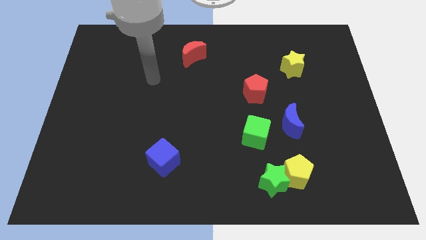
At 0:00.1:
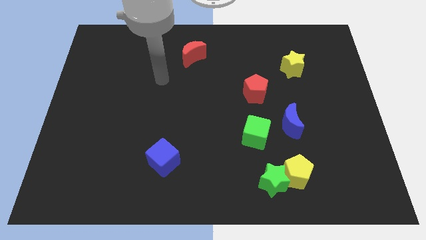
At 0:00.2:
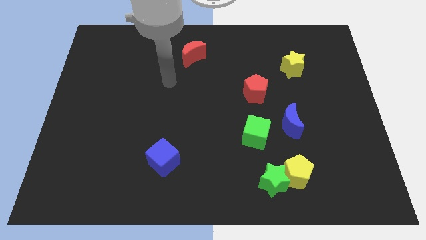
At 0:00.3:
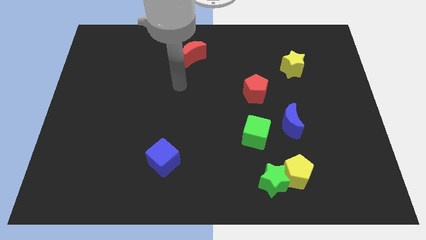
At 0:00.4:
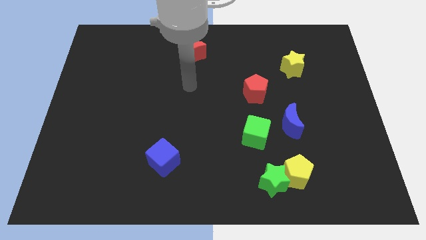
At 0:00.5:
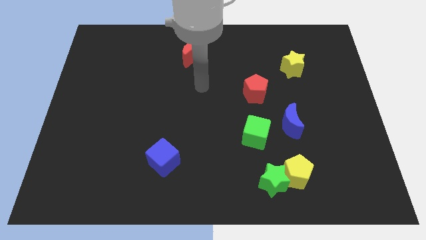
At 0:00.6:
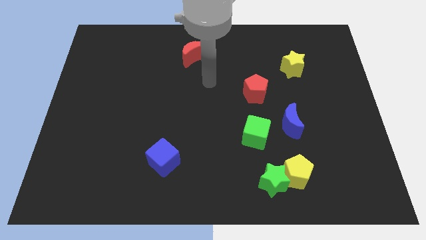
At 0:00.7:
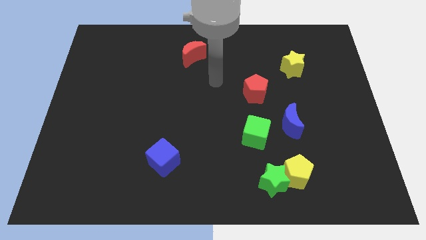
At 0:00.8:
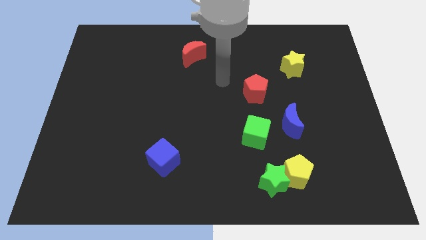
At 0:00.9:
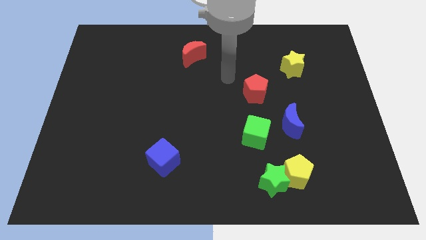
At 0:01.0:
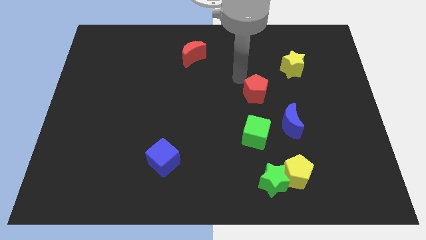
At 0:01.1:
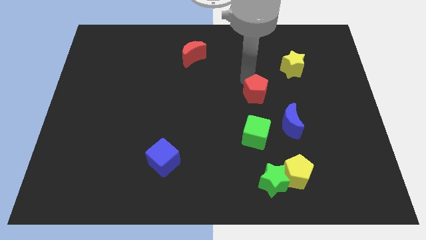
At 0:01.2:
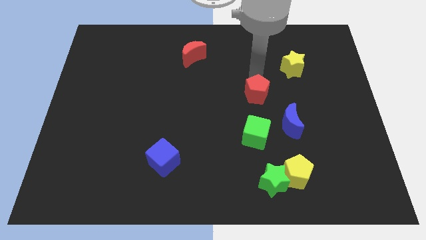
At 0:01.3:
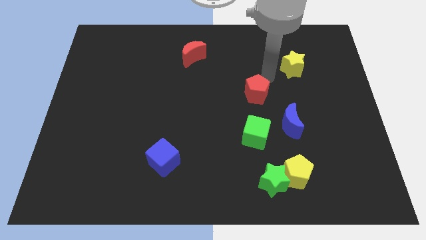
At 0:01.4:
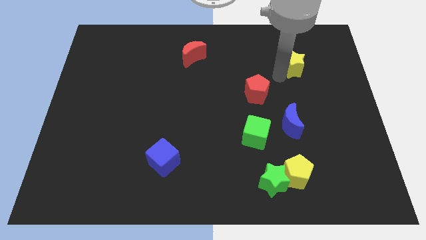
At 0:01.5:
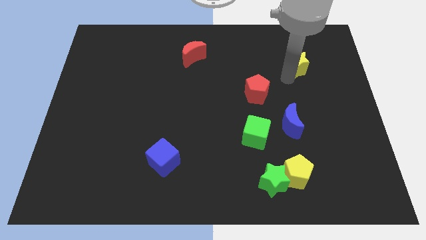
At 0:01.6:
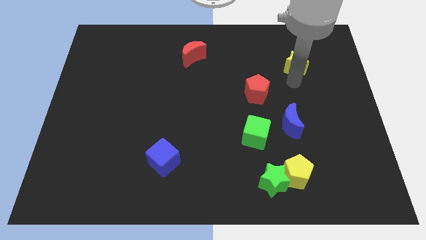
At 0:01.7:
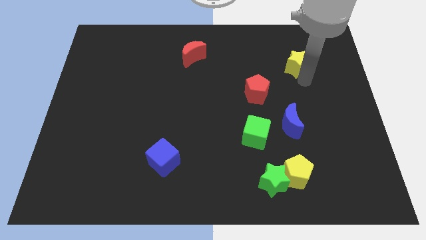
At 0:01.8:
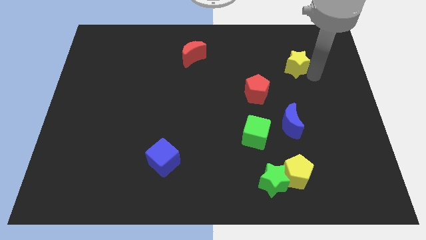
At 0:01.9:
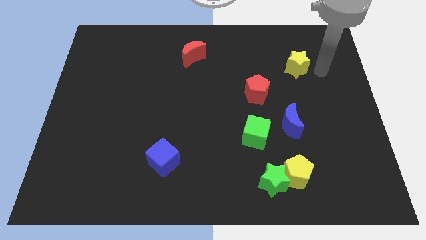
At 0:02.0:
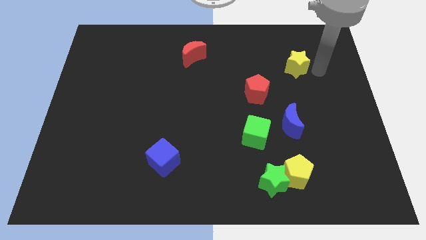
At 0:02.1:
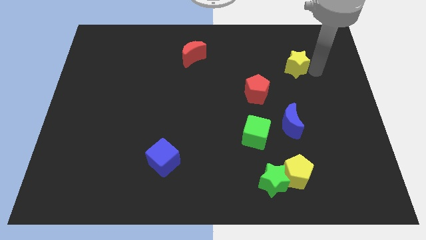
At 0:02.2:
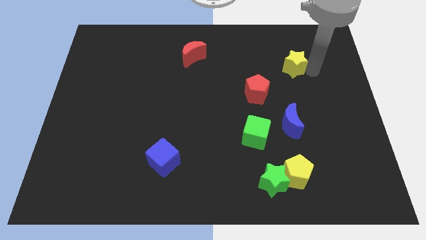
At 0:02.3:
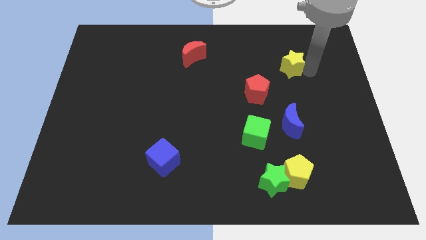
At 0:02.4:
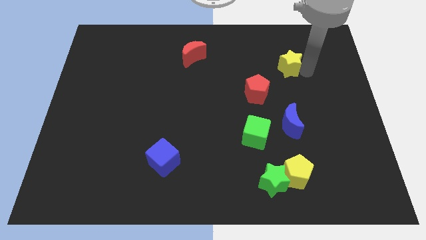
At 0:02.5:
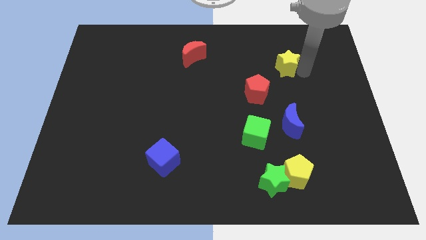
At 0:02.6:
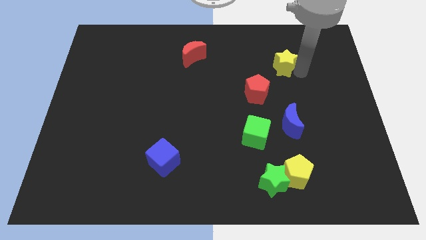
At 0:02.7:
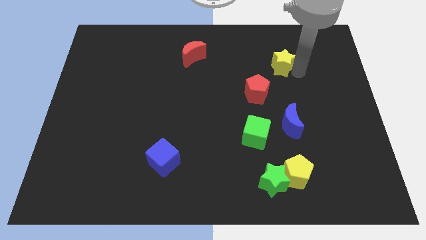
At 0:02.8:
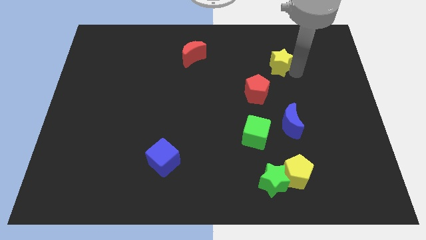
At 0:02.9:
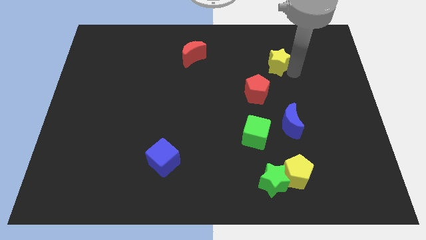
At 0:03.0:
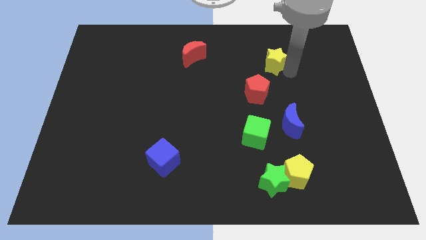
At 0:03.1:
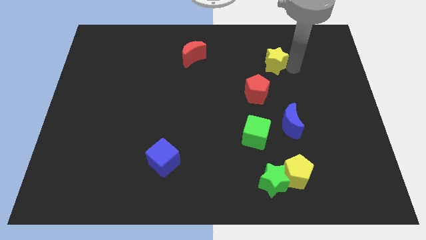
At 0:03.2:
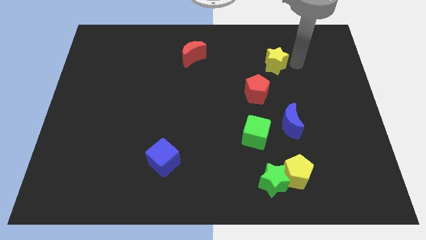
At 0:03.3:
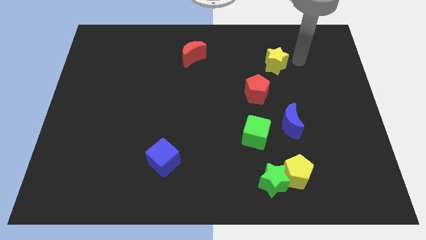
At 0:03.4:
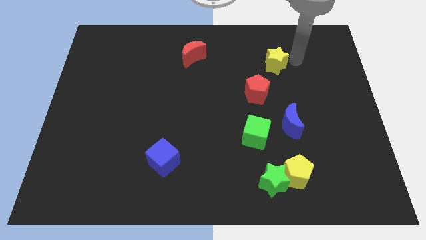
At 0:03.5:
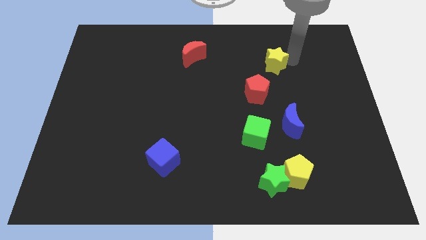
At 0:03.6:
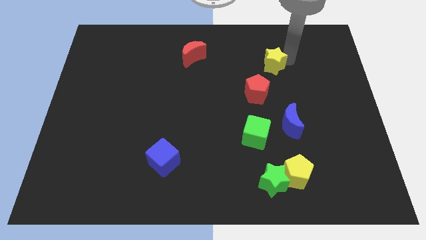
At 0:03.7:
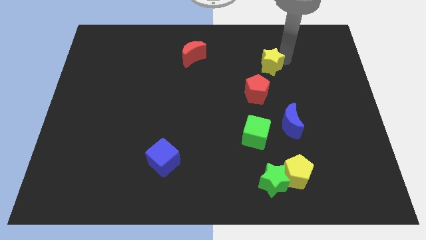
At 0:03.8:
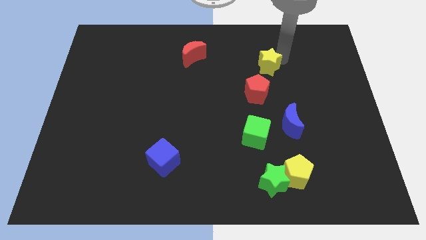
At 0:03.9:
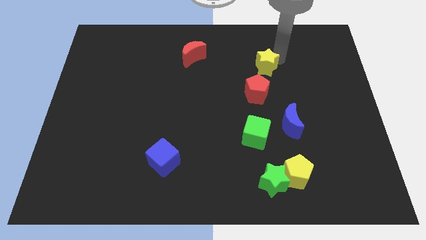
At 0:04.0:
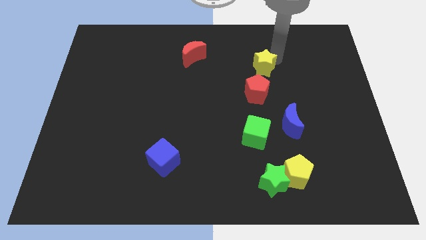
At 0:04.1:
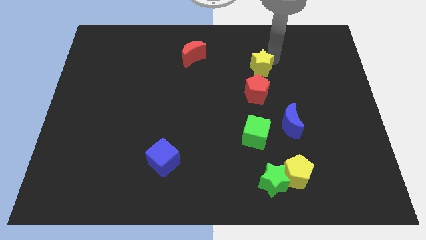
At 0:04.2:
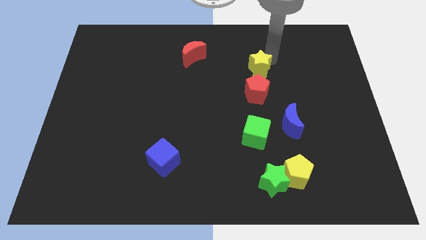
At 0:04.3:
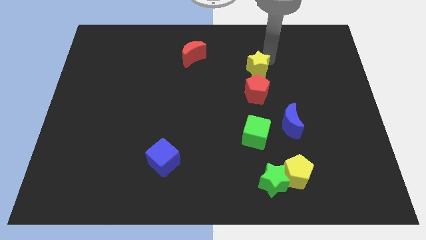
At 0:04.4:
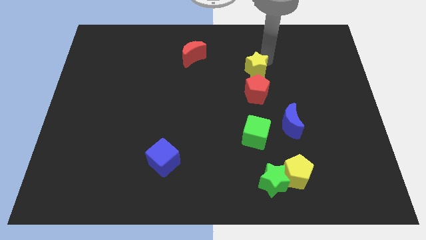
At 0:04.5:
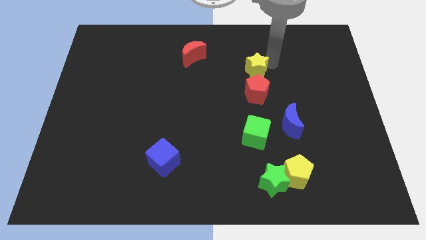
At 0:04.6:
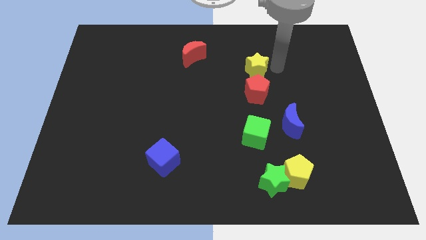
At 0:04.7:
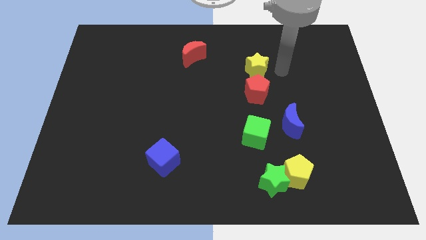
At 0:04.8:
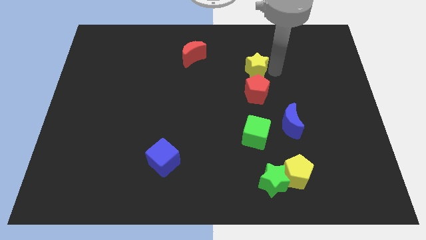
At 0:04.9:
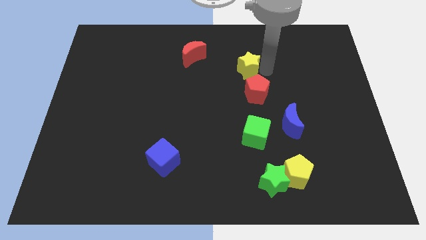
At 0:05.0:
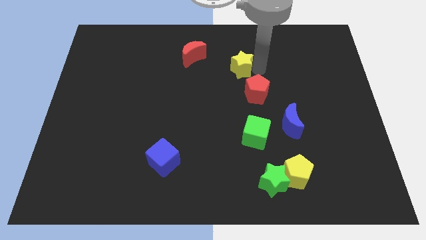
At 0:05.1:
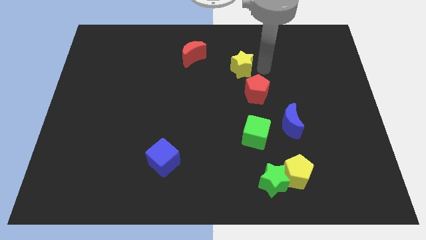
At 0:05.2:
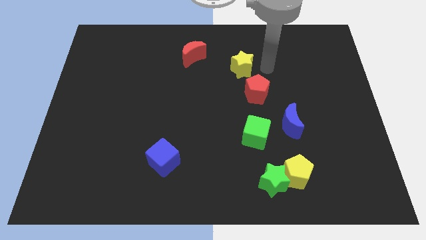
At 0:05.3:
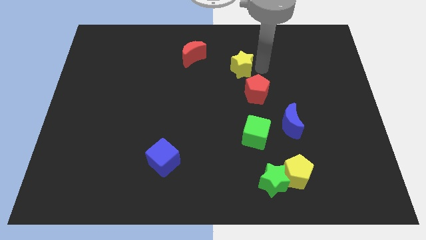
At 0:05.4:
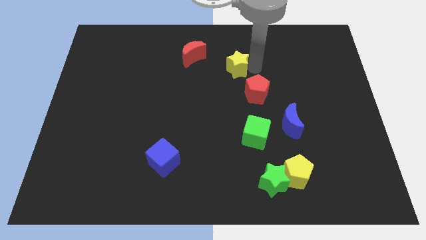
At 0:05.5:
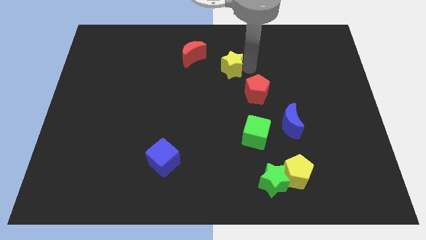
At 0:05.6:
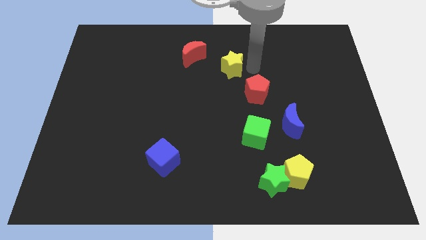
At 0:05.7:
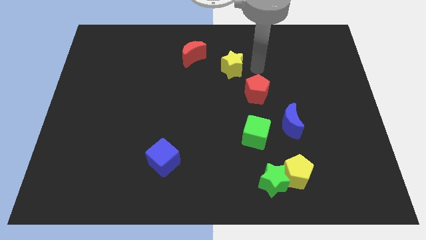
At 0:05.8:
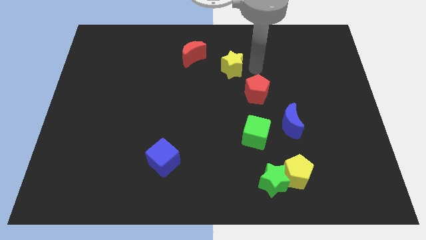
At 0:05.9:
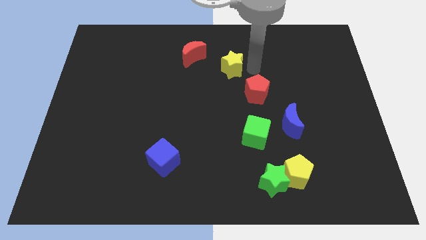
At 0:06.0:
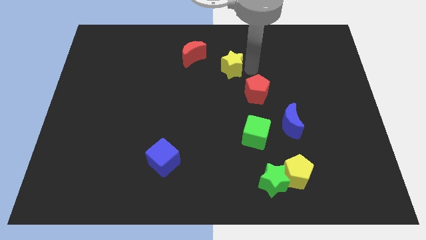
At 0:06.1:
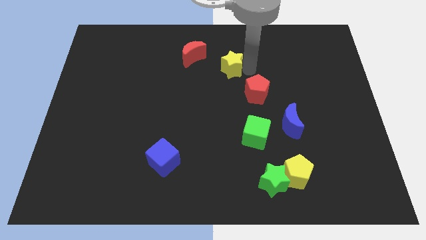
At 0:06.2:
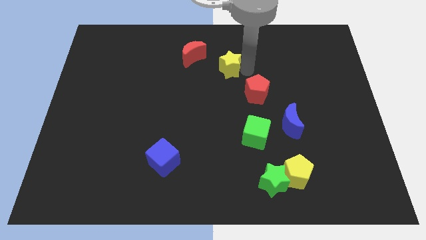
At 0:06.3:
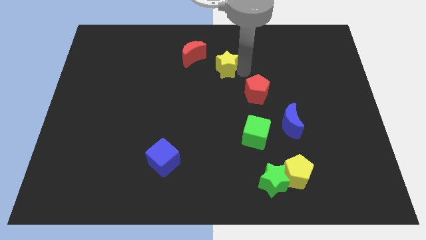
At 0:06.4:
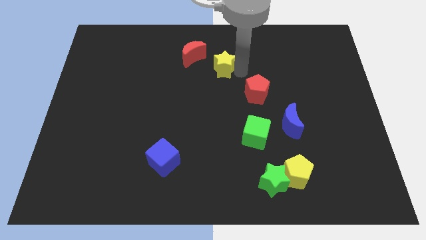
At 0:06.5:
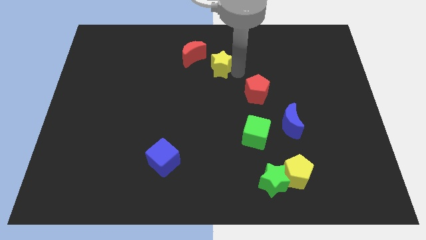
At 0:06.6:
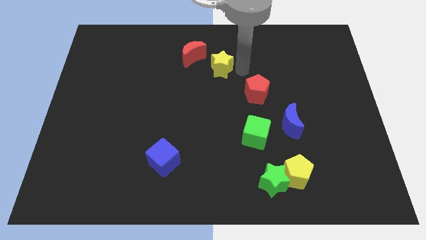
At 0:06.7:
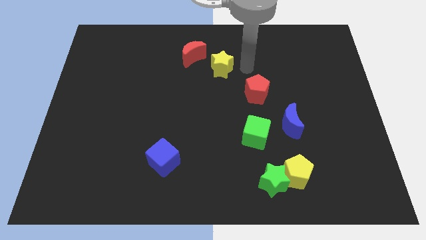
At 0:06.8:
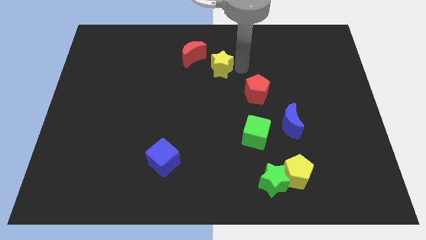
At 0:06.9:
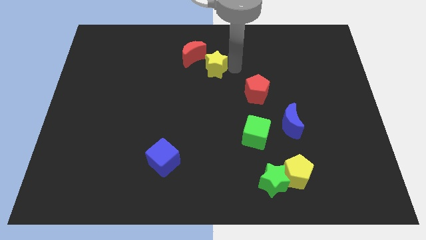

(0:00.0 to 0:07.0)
move the yellow star left

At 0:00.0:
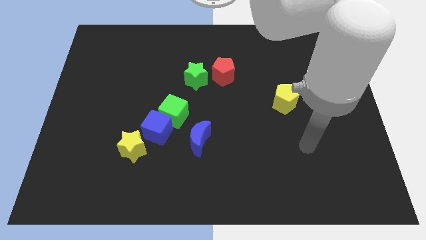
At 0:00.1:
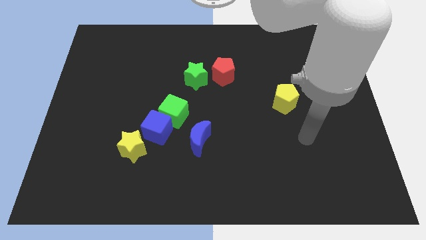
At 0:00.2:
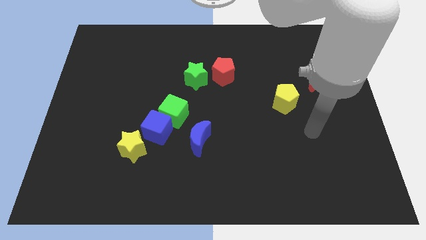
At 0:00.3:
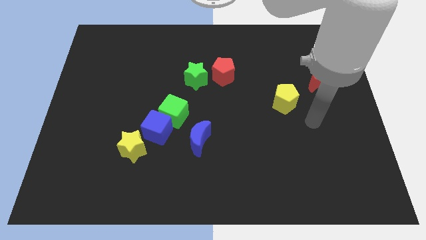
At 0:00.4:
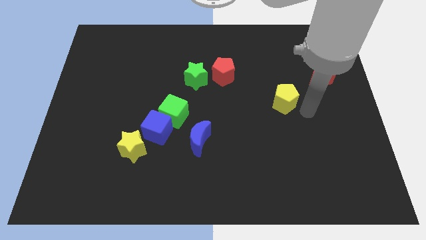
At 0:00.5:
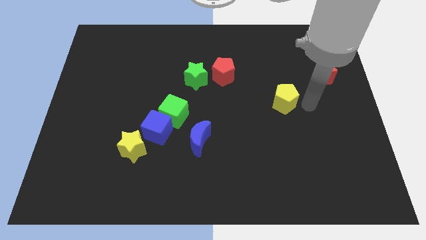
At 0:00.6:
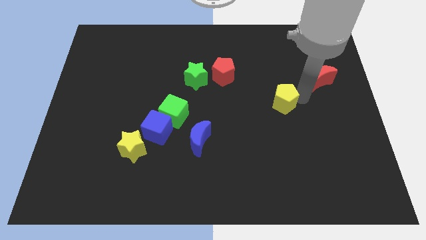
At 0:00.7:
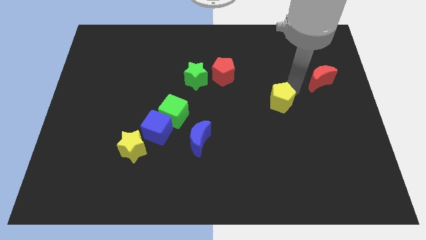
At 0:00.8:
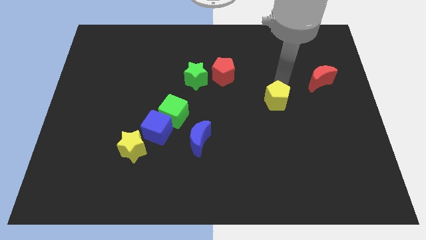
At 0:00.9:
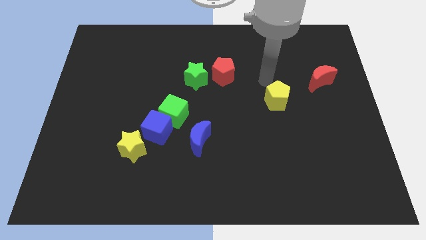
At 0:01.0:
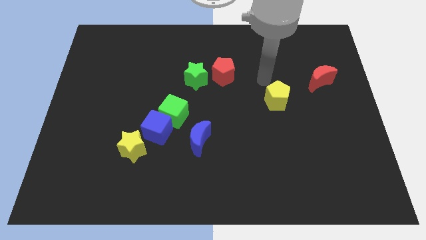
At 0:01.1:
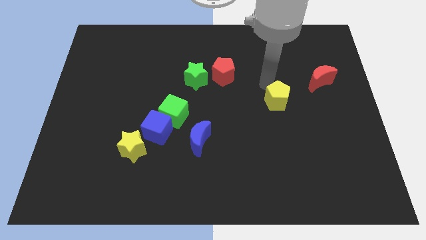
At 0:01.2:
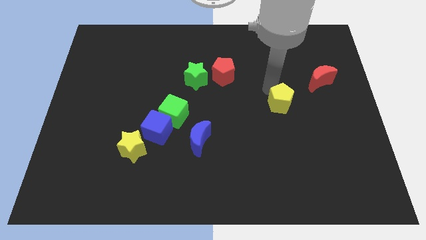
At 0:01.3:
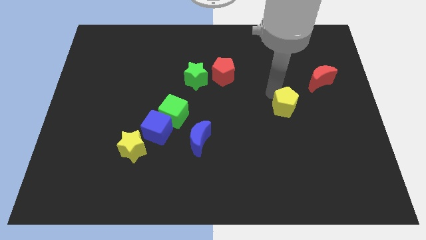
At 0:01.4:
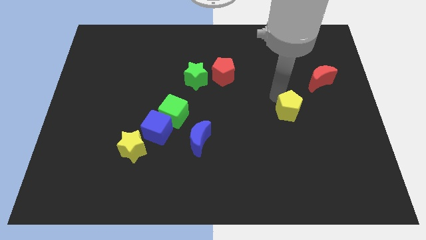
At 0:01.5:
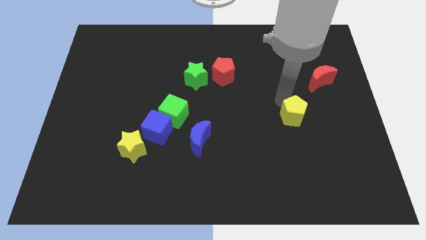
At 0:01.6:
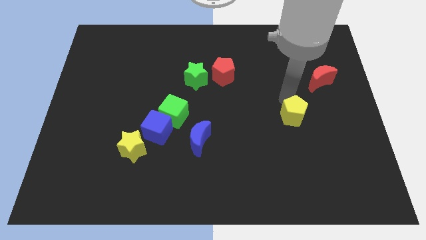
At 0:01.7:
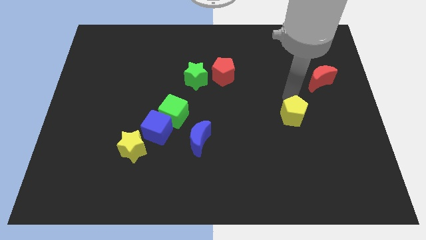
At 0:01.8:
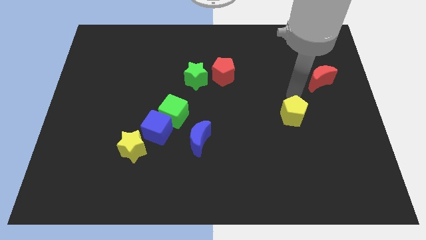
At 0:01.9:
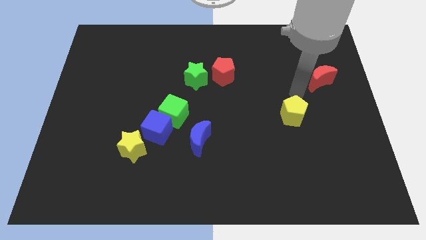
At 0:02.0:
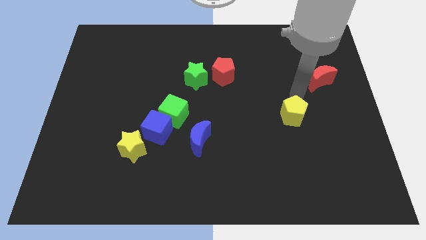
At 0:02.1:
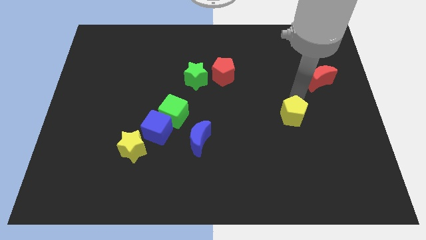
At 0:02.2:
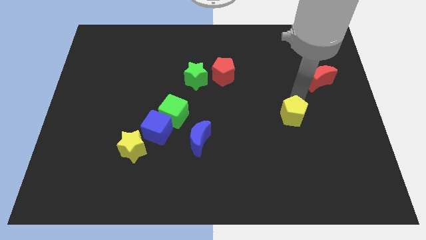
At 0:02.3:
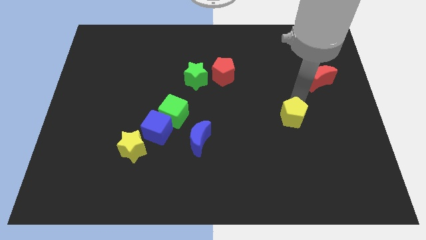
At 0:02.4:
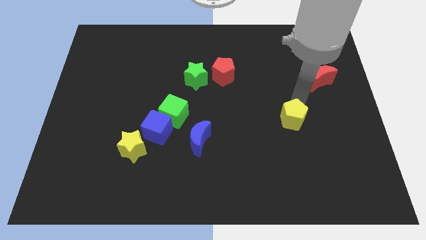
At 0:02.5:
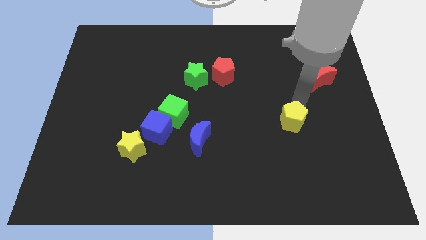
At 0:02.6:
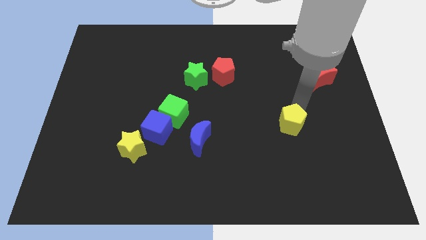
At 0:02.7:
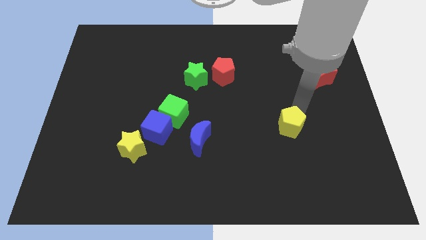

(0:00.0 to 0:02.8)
slightly move the yellow pentagon down
